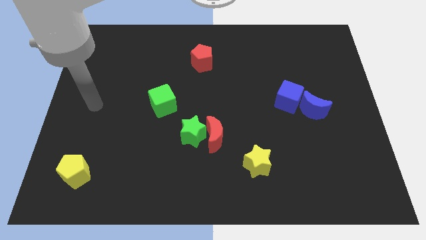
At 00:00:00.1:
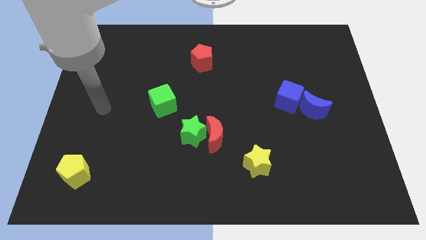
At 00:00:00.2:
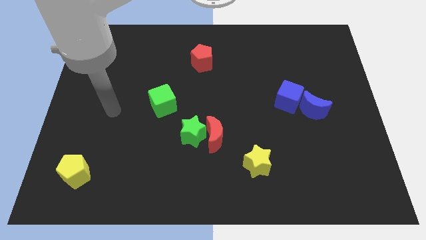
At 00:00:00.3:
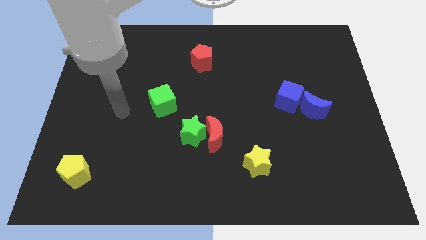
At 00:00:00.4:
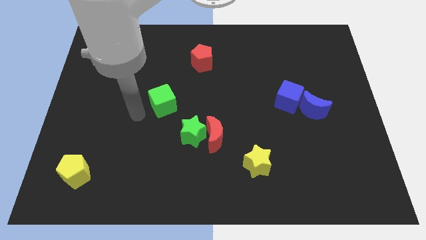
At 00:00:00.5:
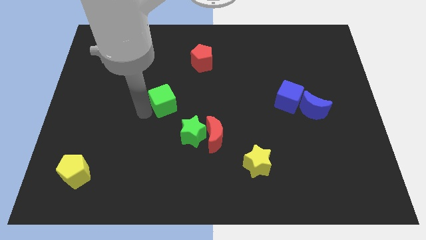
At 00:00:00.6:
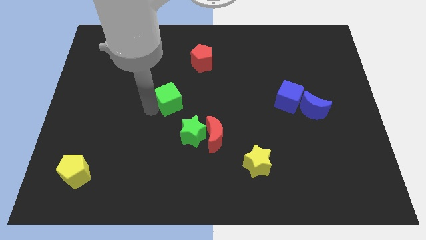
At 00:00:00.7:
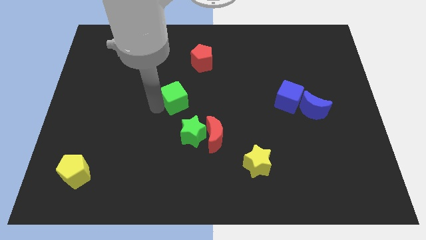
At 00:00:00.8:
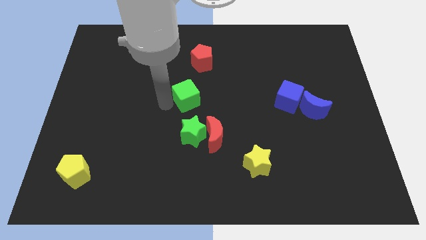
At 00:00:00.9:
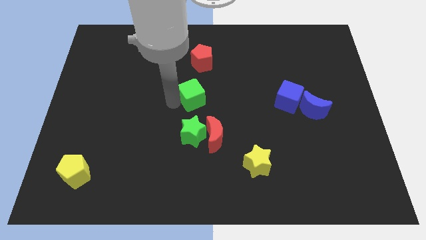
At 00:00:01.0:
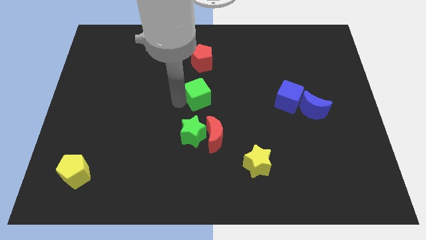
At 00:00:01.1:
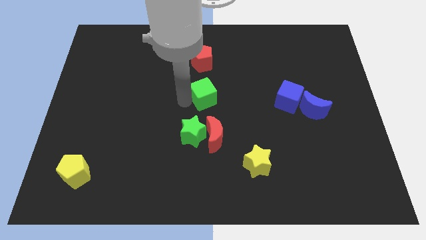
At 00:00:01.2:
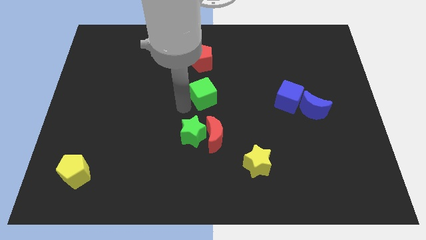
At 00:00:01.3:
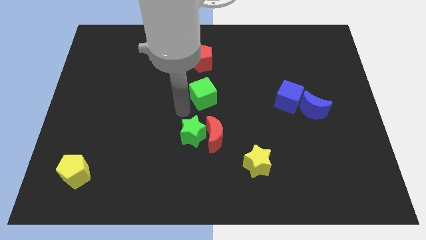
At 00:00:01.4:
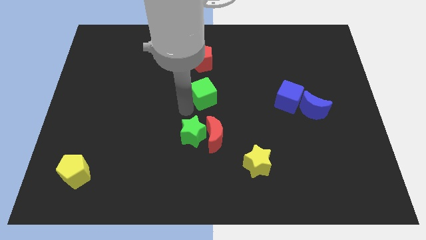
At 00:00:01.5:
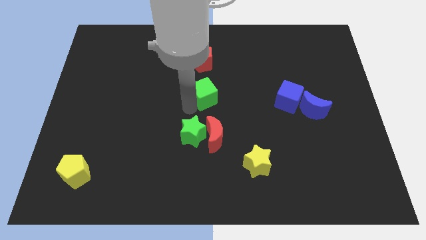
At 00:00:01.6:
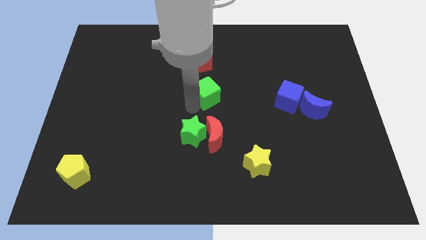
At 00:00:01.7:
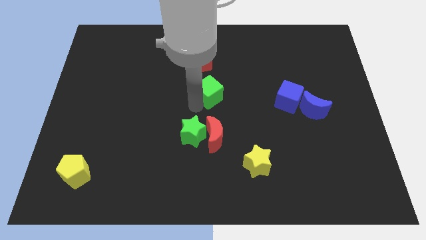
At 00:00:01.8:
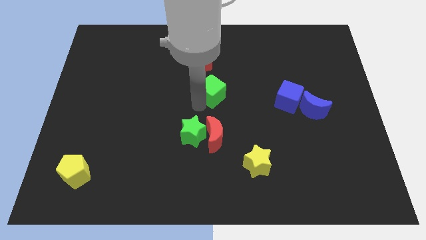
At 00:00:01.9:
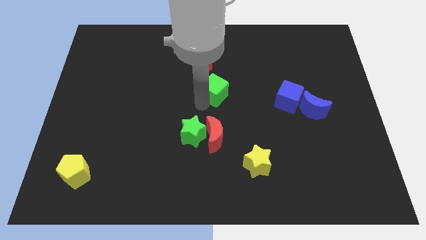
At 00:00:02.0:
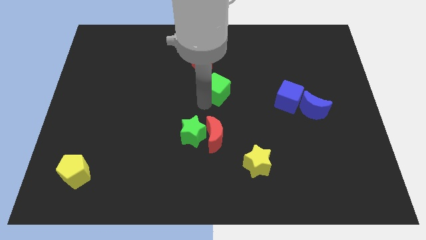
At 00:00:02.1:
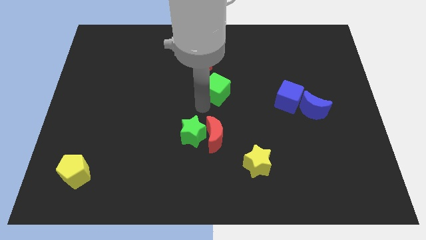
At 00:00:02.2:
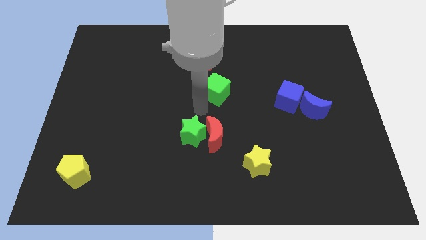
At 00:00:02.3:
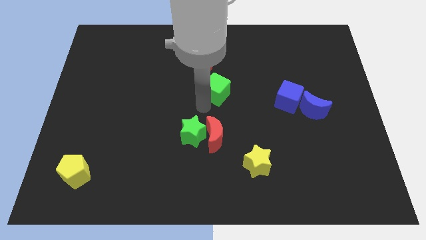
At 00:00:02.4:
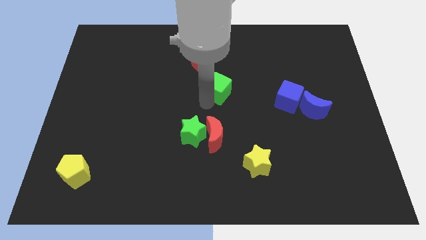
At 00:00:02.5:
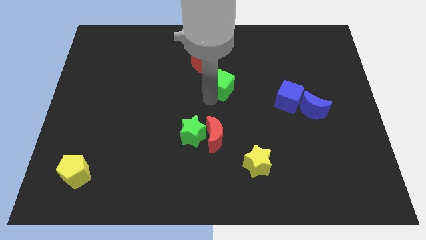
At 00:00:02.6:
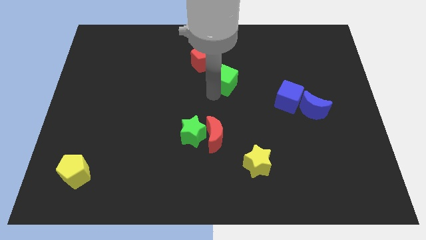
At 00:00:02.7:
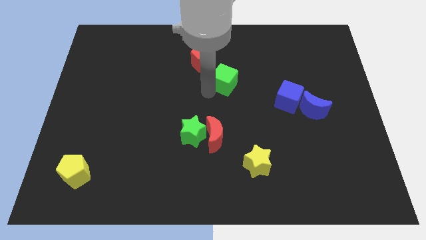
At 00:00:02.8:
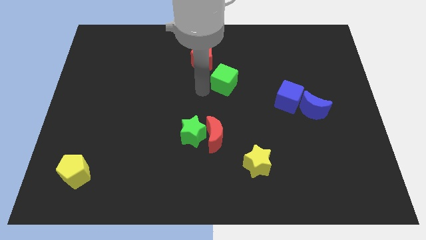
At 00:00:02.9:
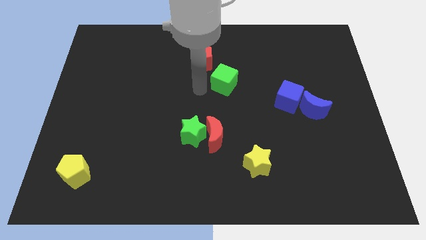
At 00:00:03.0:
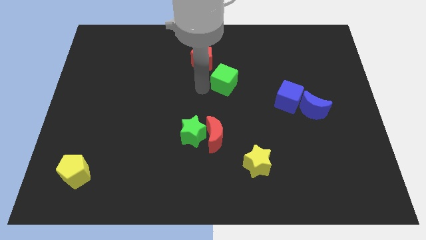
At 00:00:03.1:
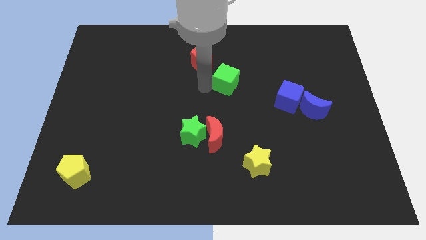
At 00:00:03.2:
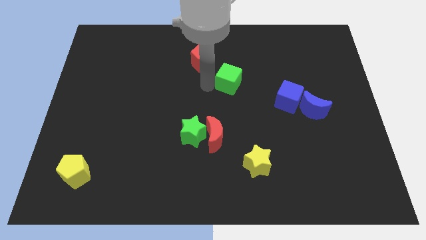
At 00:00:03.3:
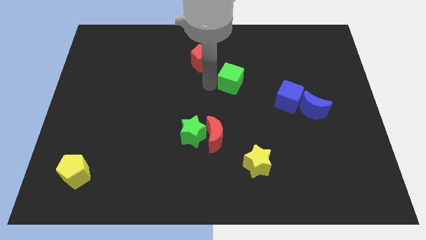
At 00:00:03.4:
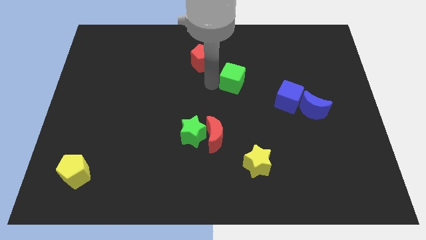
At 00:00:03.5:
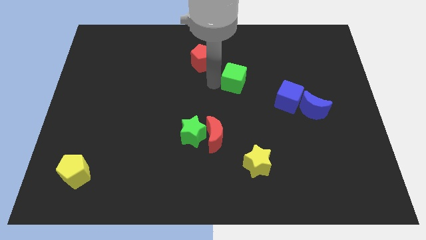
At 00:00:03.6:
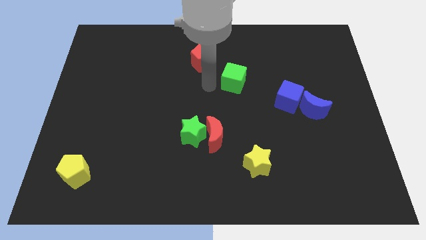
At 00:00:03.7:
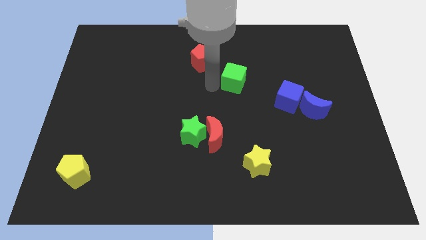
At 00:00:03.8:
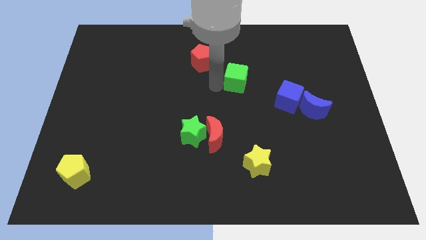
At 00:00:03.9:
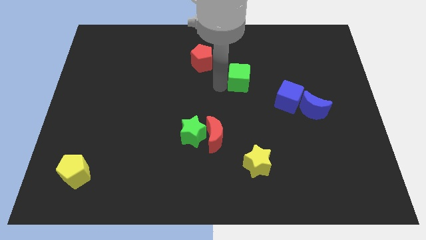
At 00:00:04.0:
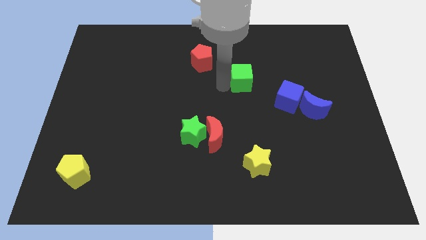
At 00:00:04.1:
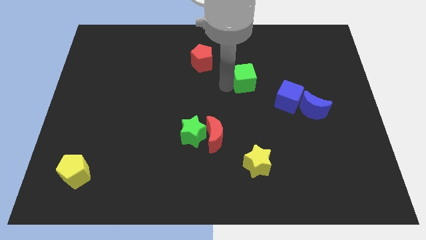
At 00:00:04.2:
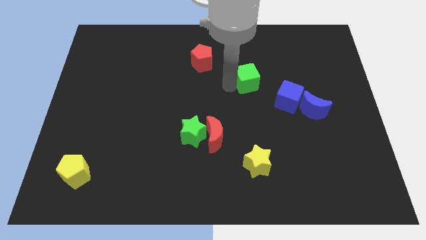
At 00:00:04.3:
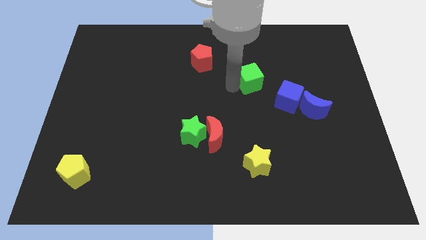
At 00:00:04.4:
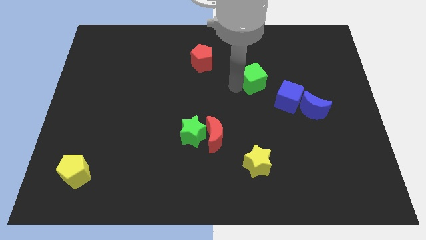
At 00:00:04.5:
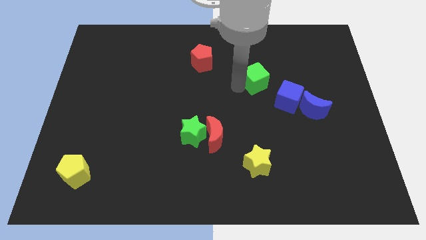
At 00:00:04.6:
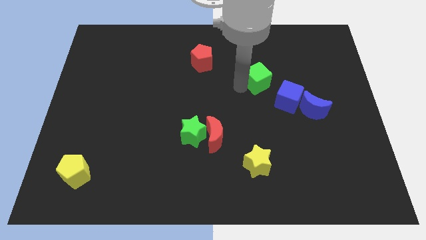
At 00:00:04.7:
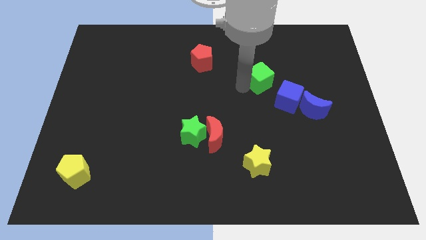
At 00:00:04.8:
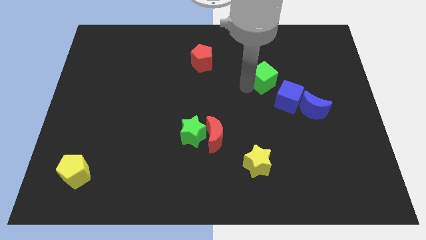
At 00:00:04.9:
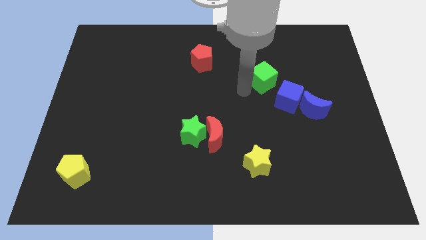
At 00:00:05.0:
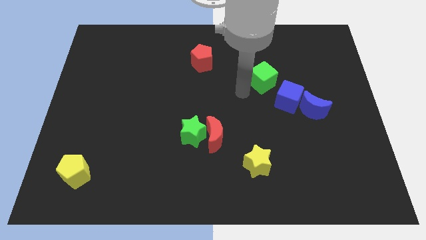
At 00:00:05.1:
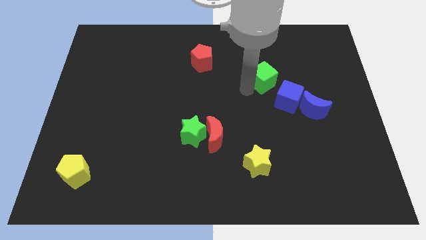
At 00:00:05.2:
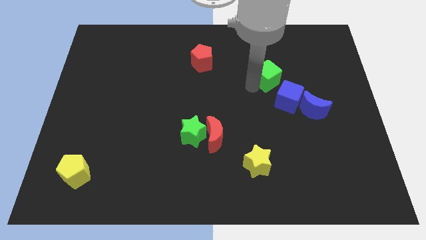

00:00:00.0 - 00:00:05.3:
put the green cube to the top of the blue cube

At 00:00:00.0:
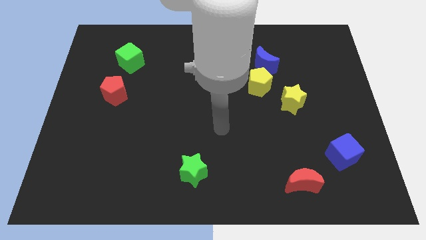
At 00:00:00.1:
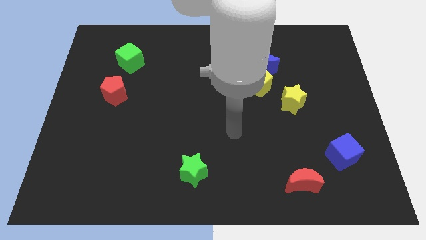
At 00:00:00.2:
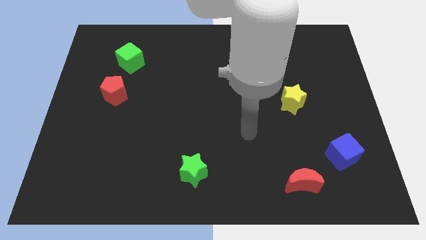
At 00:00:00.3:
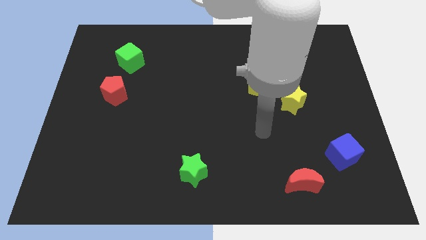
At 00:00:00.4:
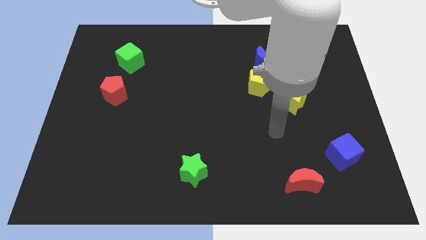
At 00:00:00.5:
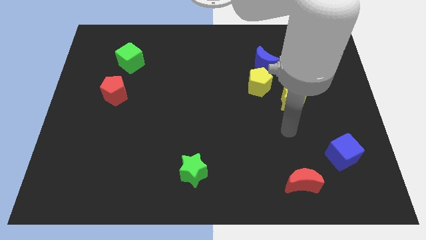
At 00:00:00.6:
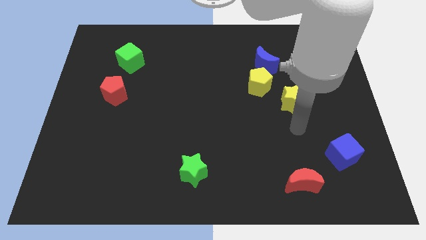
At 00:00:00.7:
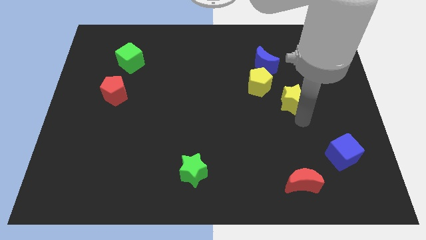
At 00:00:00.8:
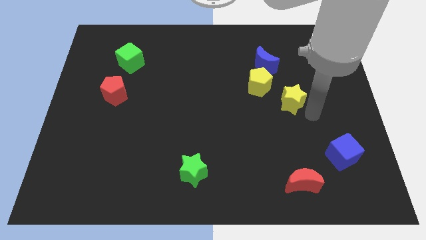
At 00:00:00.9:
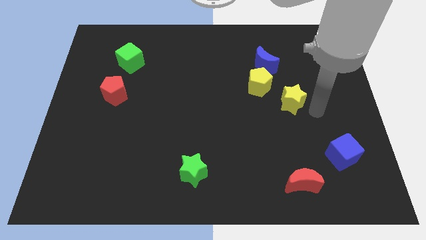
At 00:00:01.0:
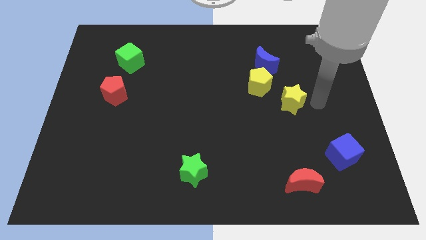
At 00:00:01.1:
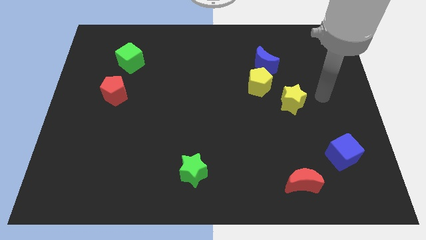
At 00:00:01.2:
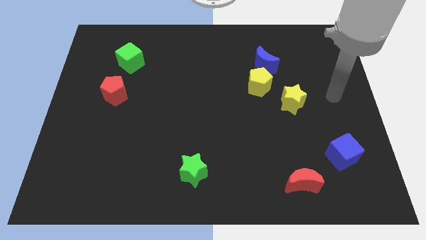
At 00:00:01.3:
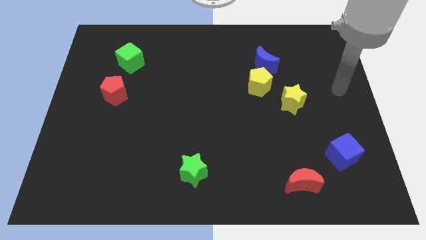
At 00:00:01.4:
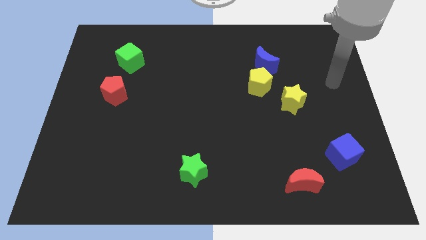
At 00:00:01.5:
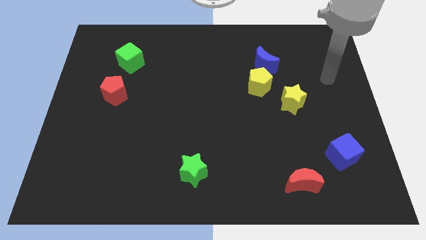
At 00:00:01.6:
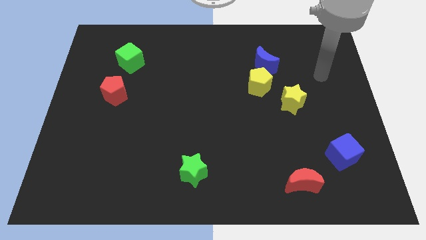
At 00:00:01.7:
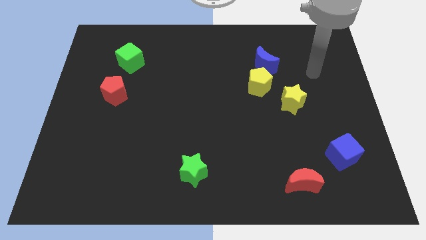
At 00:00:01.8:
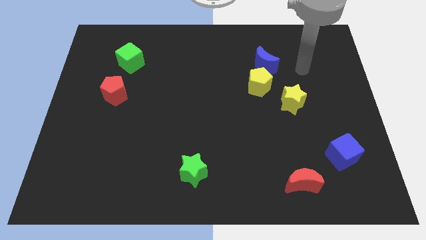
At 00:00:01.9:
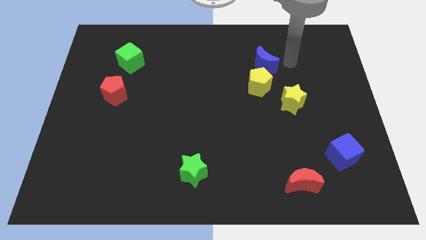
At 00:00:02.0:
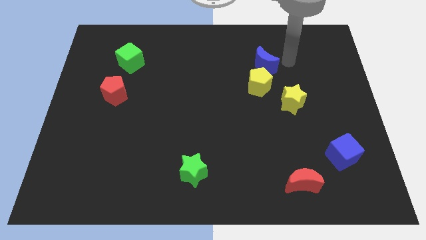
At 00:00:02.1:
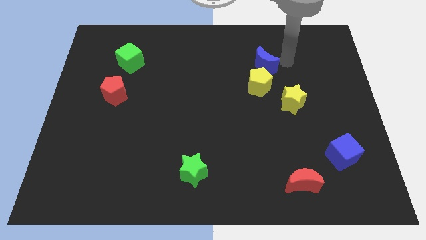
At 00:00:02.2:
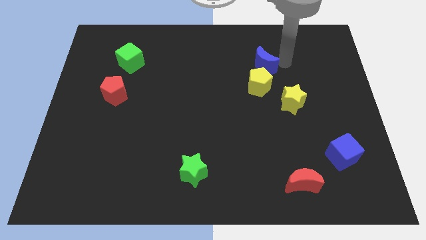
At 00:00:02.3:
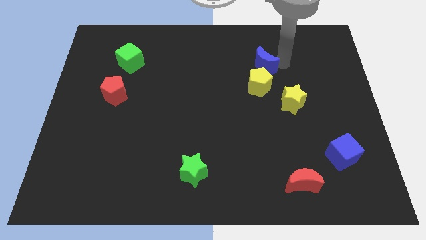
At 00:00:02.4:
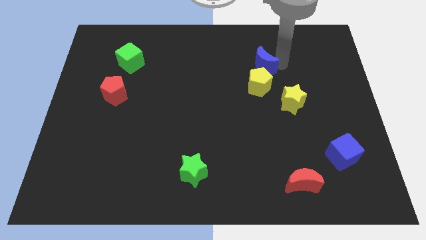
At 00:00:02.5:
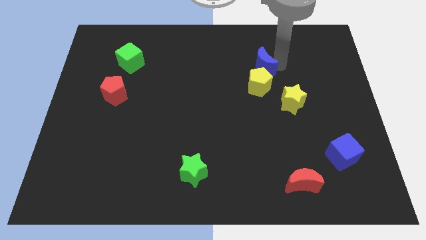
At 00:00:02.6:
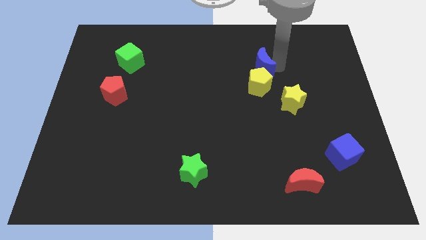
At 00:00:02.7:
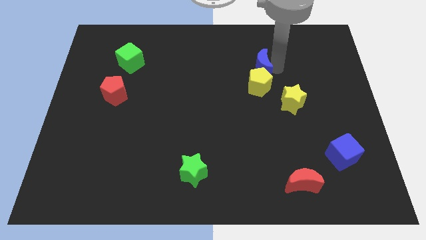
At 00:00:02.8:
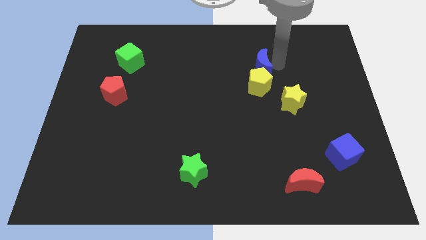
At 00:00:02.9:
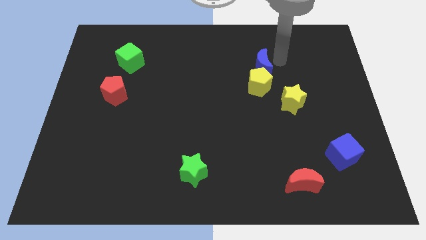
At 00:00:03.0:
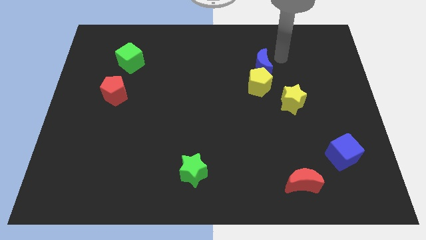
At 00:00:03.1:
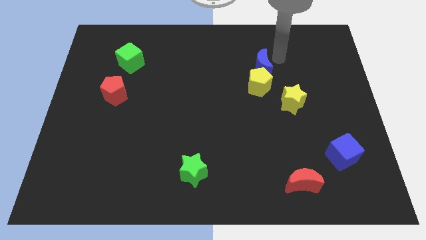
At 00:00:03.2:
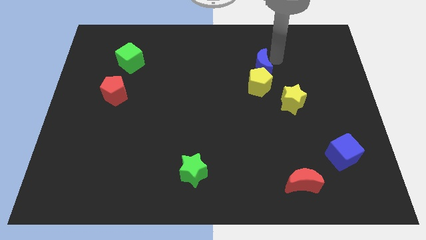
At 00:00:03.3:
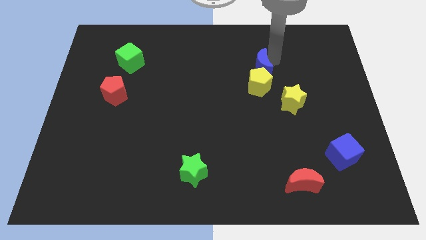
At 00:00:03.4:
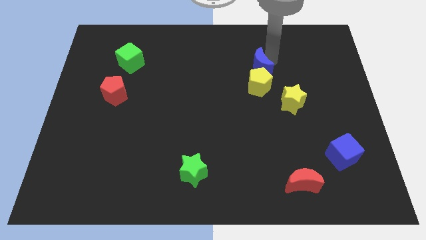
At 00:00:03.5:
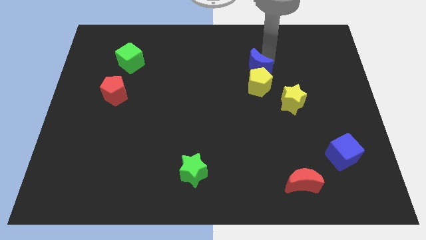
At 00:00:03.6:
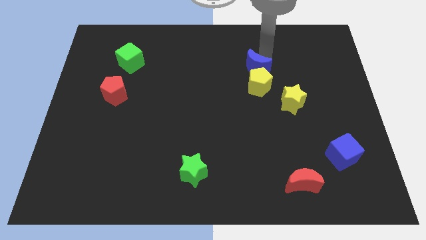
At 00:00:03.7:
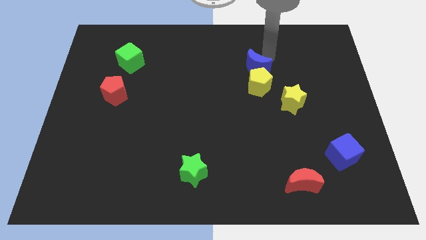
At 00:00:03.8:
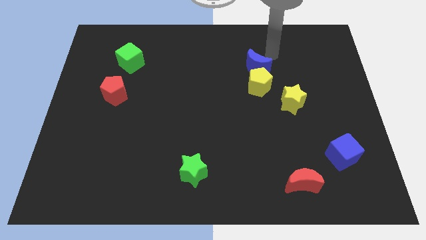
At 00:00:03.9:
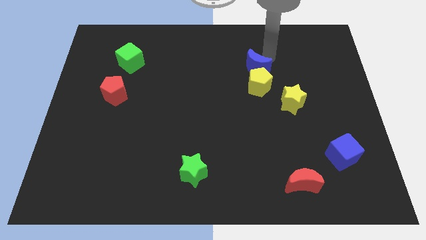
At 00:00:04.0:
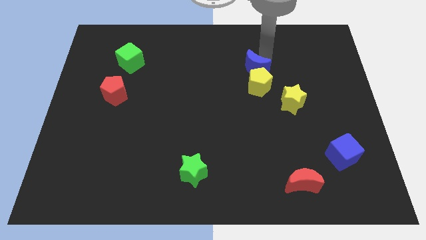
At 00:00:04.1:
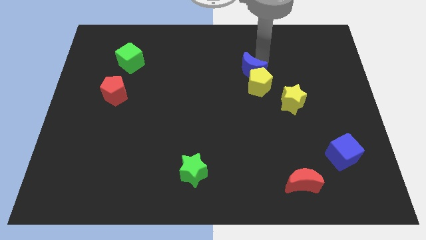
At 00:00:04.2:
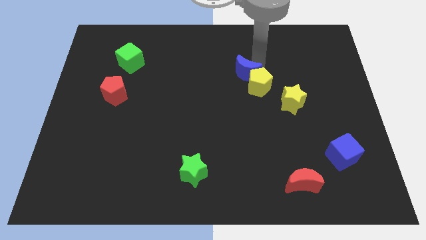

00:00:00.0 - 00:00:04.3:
move the blue moon left of the yellow pentagon
